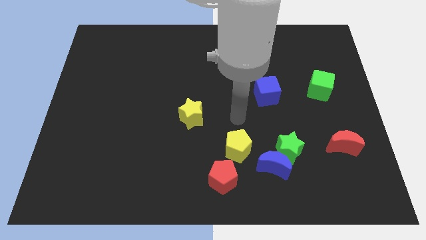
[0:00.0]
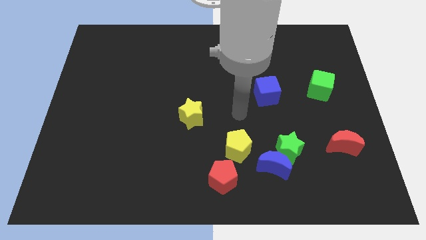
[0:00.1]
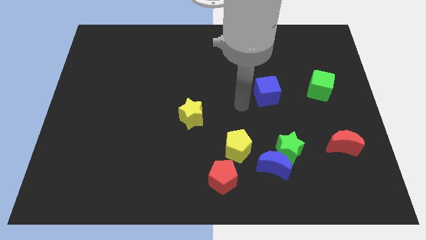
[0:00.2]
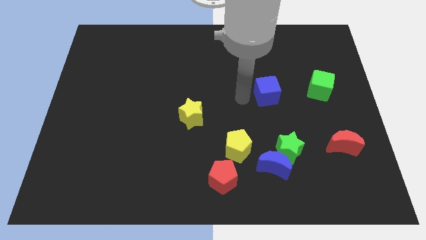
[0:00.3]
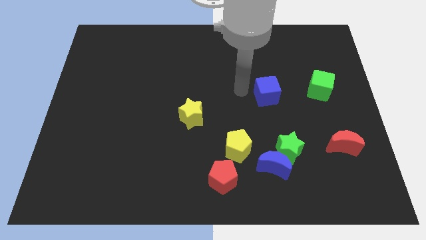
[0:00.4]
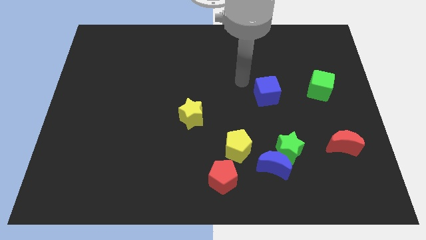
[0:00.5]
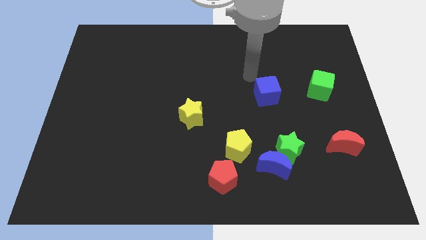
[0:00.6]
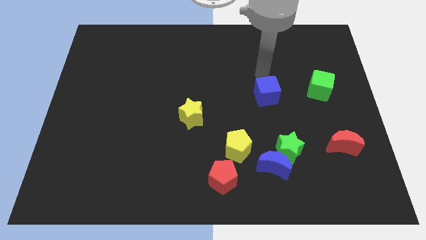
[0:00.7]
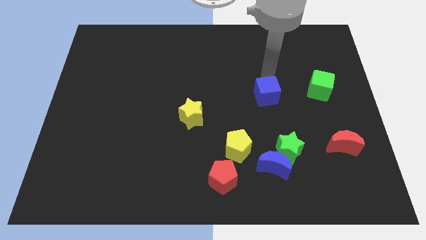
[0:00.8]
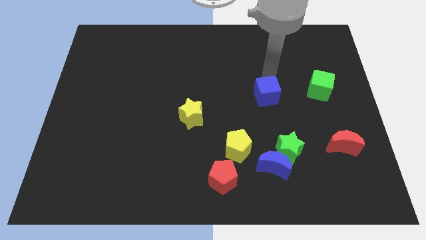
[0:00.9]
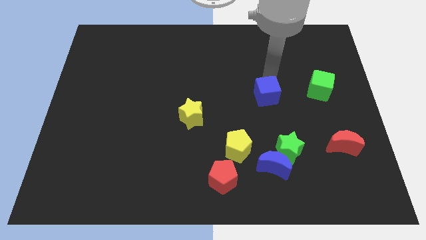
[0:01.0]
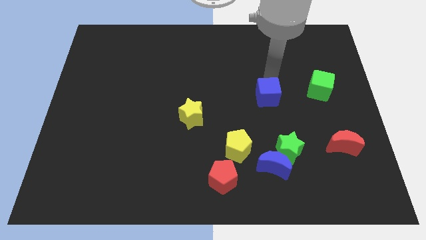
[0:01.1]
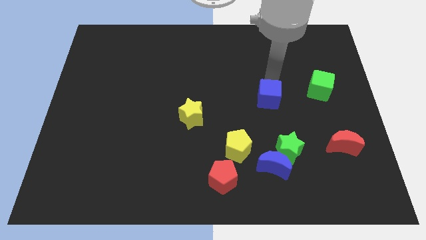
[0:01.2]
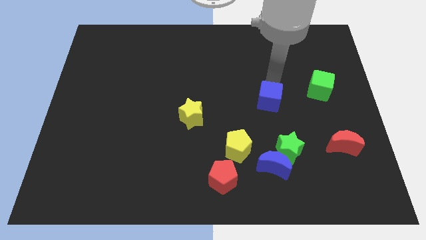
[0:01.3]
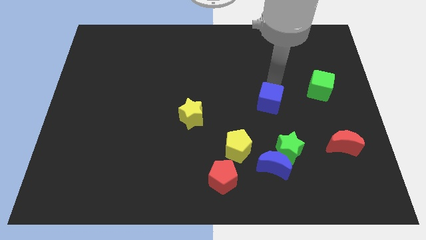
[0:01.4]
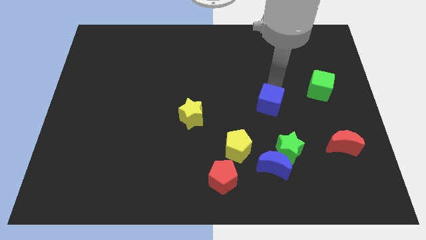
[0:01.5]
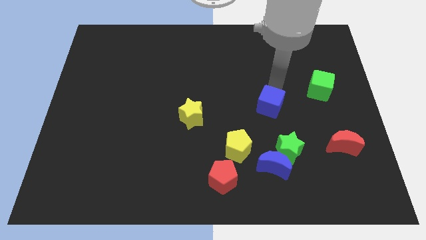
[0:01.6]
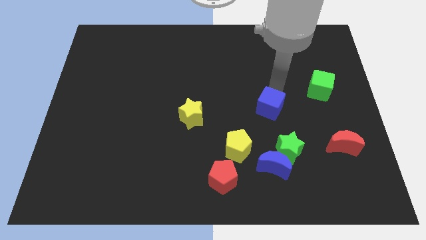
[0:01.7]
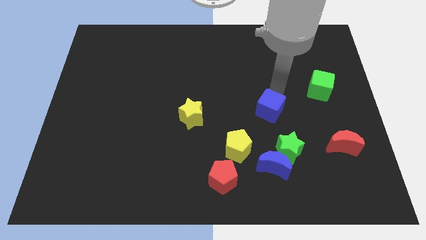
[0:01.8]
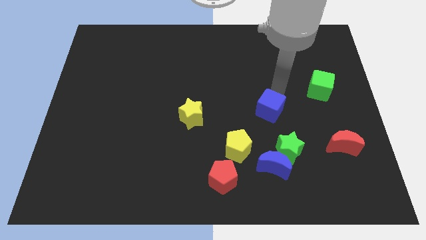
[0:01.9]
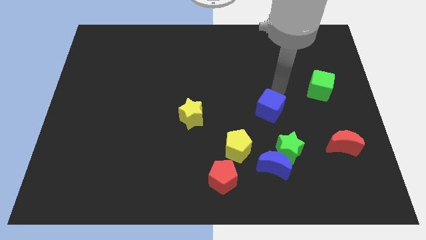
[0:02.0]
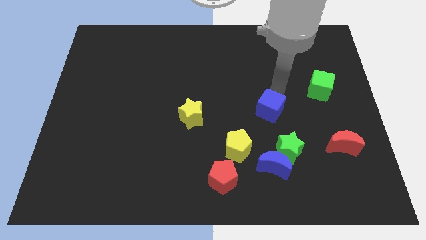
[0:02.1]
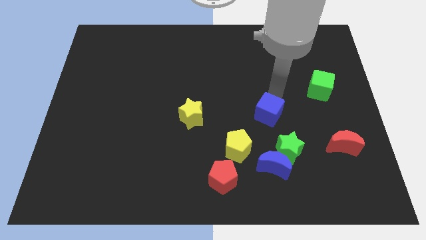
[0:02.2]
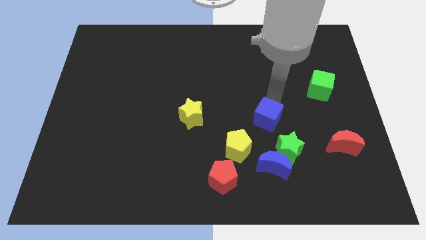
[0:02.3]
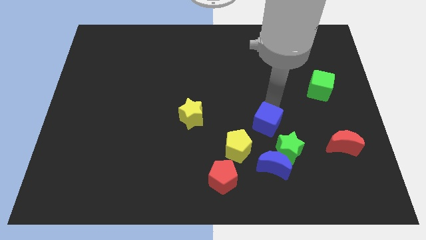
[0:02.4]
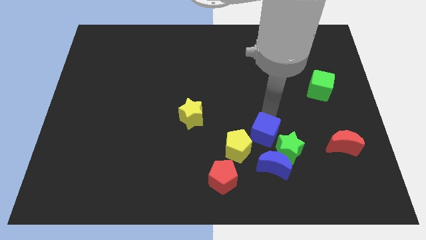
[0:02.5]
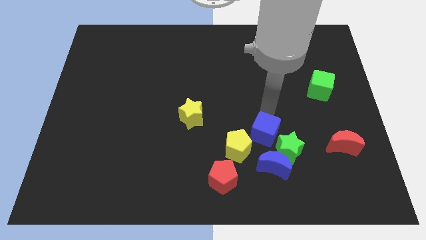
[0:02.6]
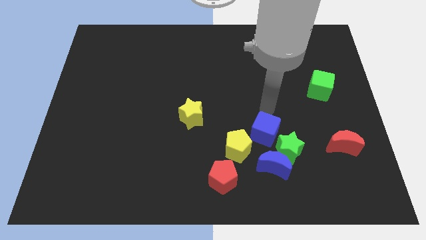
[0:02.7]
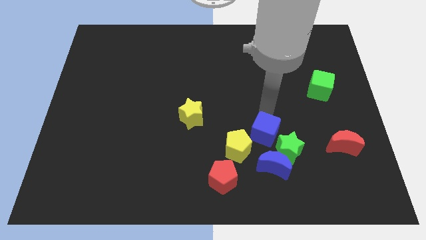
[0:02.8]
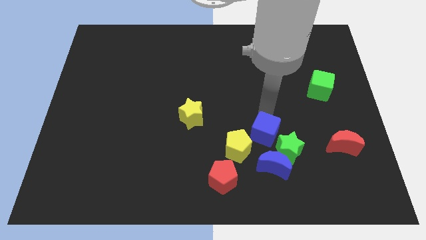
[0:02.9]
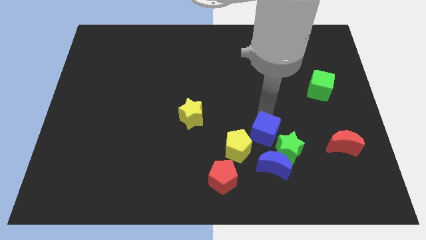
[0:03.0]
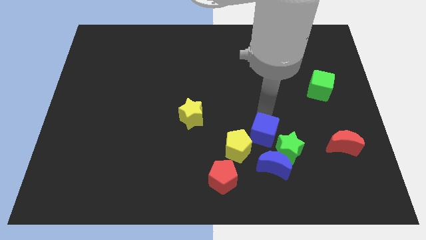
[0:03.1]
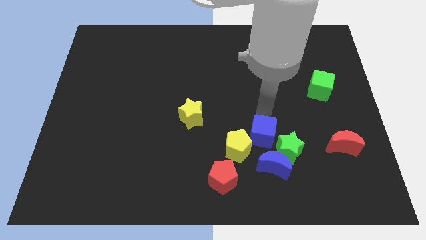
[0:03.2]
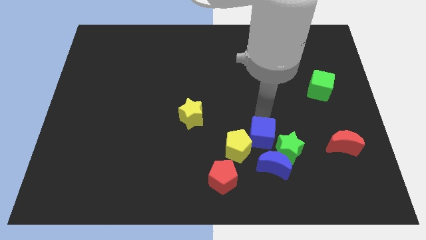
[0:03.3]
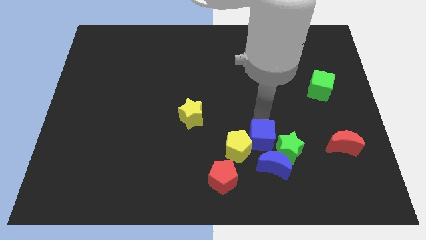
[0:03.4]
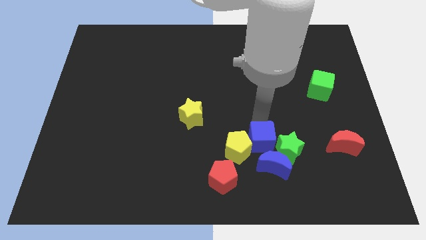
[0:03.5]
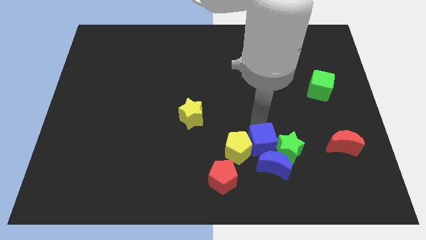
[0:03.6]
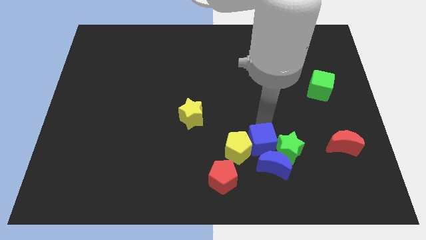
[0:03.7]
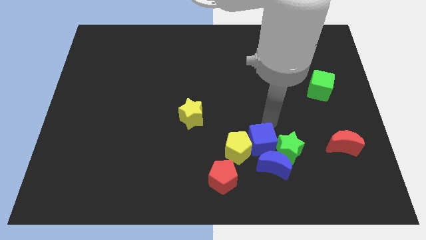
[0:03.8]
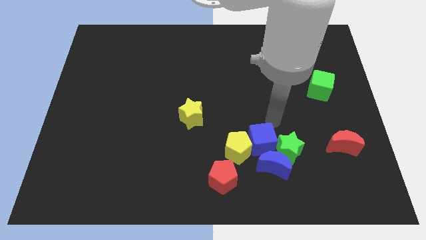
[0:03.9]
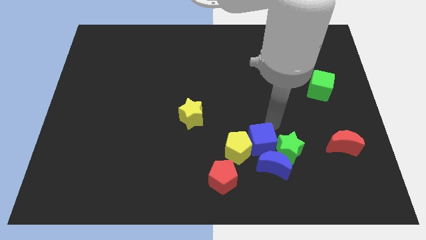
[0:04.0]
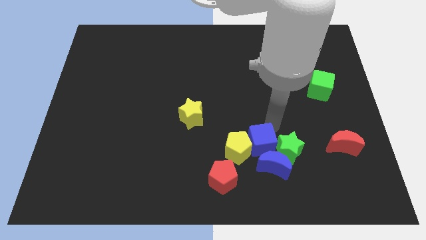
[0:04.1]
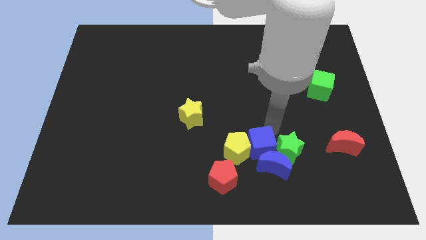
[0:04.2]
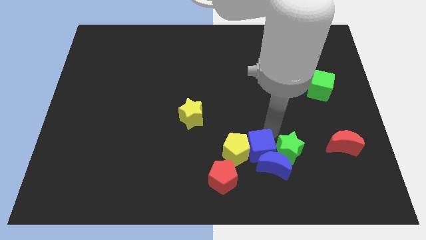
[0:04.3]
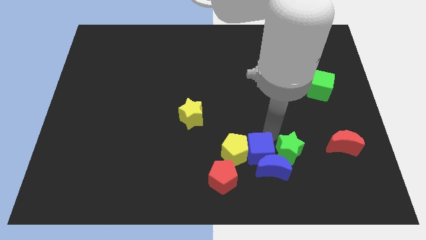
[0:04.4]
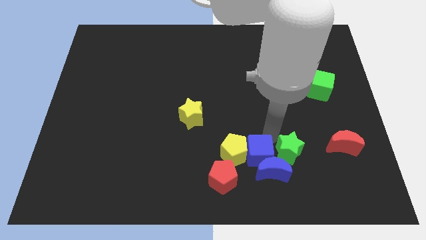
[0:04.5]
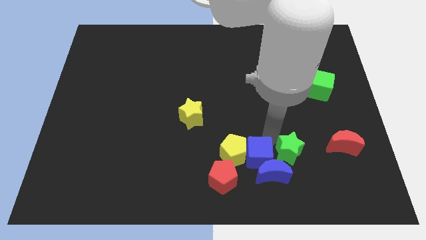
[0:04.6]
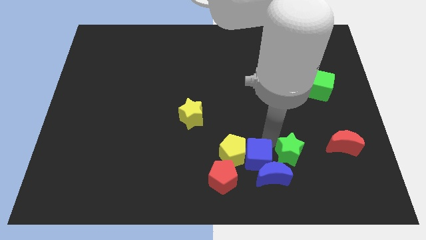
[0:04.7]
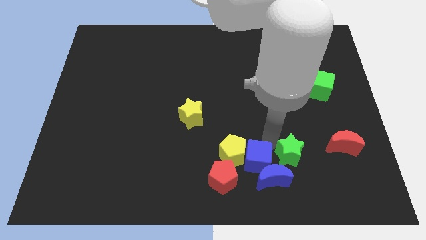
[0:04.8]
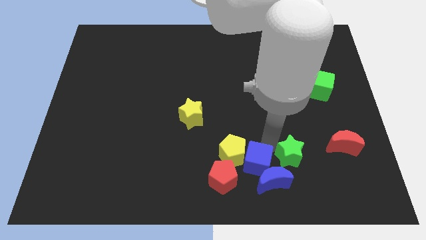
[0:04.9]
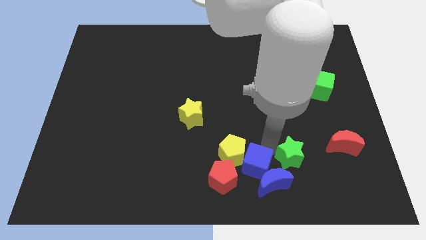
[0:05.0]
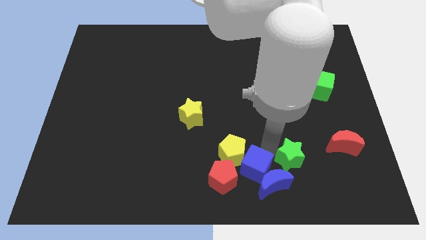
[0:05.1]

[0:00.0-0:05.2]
put the blue cube to the bottom

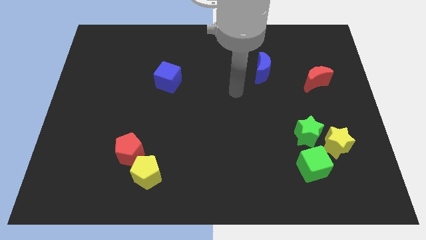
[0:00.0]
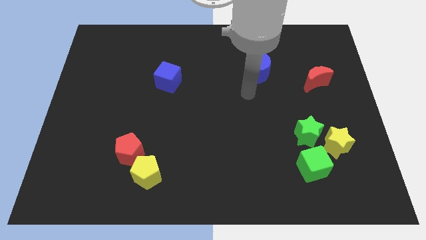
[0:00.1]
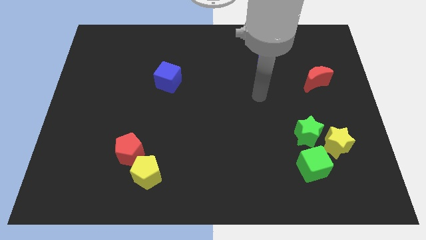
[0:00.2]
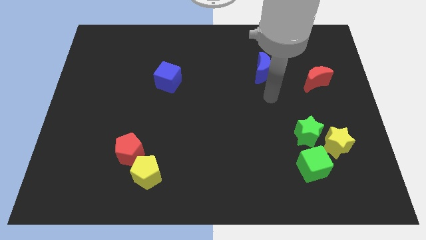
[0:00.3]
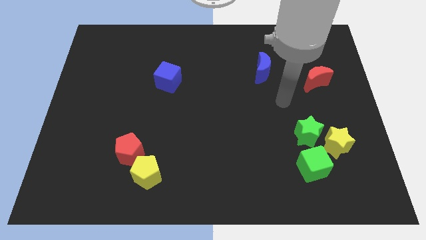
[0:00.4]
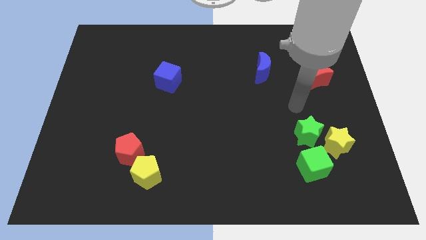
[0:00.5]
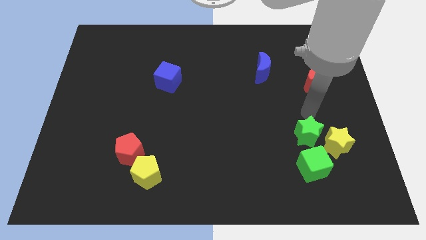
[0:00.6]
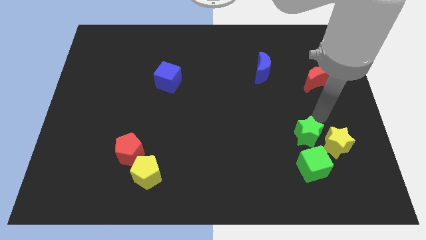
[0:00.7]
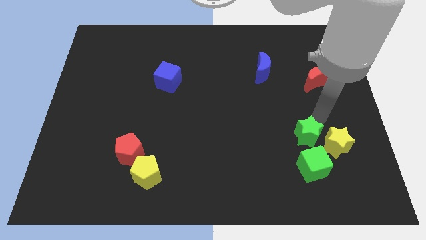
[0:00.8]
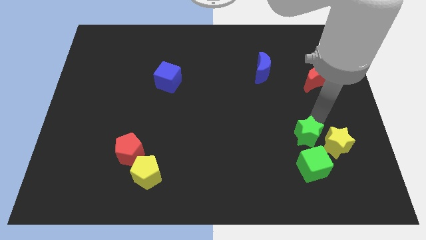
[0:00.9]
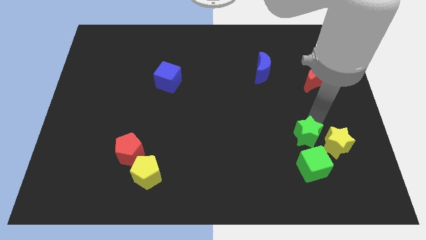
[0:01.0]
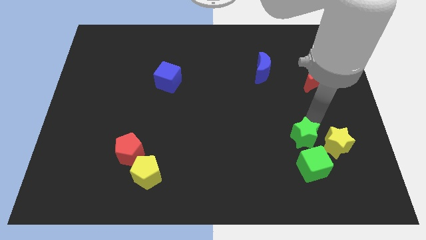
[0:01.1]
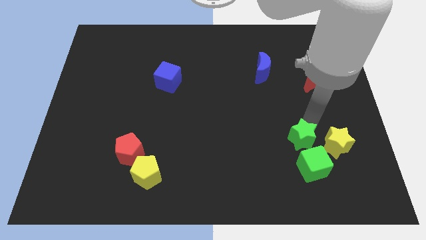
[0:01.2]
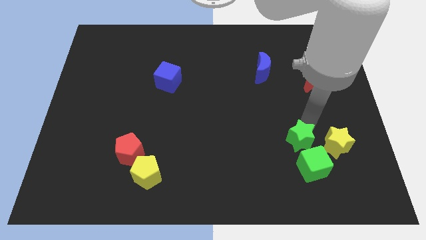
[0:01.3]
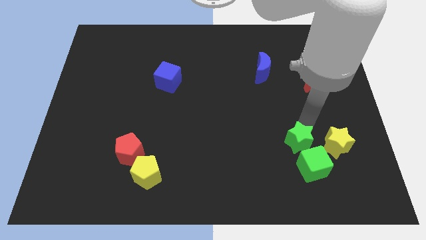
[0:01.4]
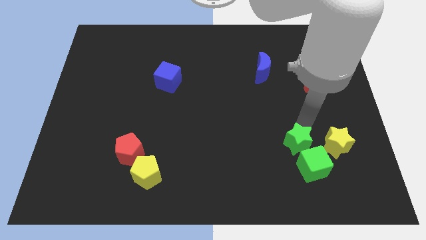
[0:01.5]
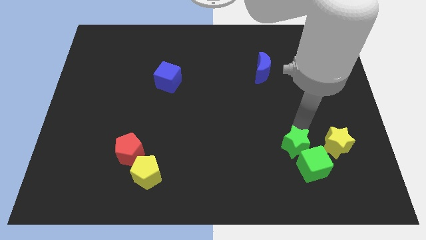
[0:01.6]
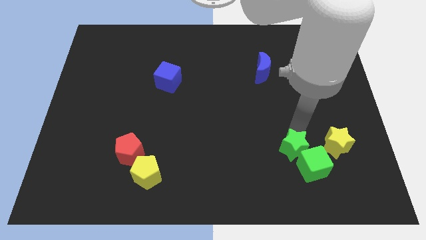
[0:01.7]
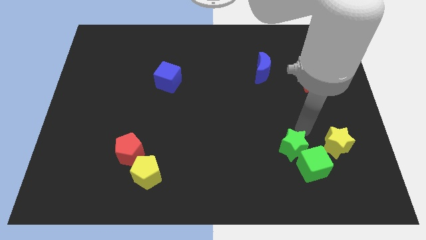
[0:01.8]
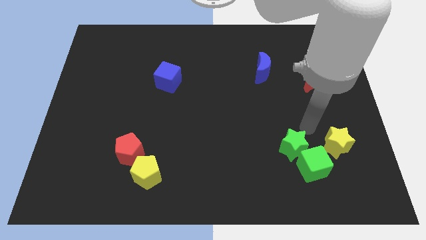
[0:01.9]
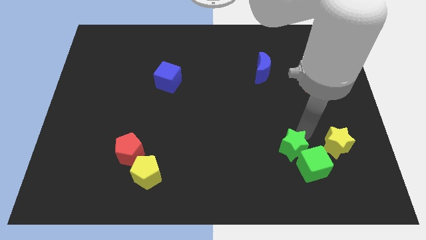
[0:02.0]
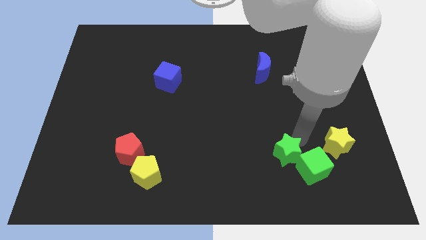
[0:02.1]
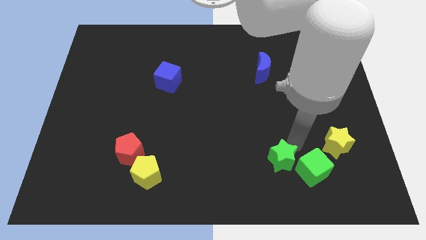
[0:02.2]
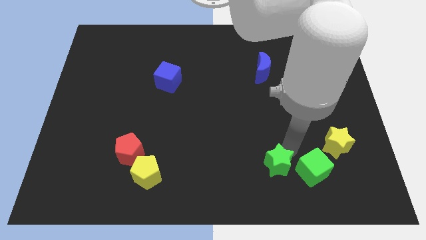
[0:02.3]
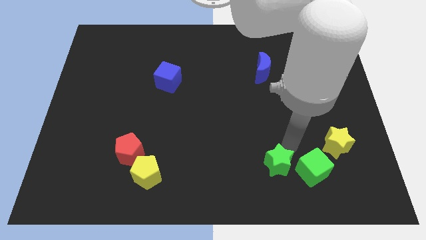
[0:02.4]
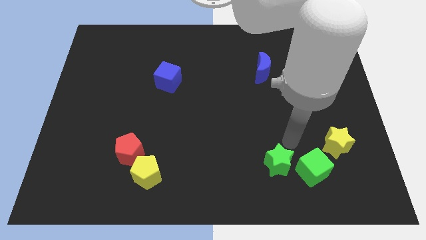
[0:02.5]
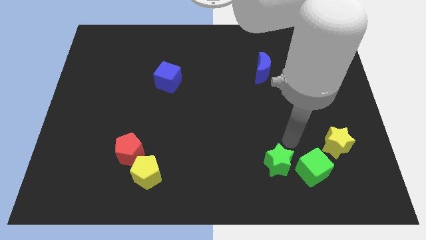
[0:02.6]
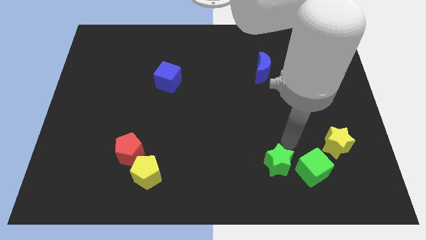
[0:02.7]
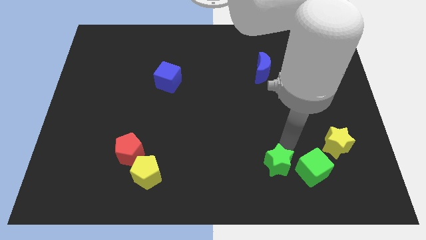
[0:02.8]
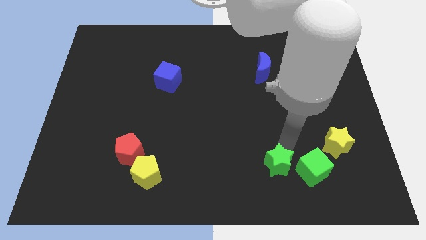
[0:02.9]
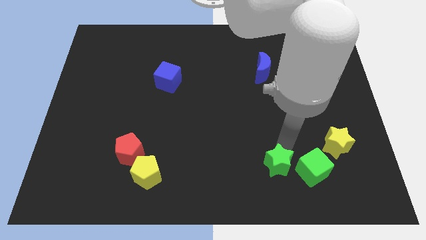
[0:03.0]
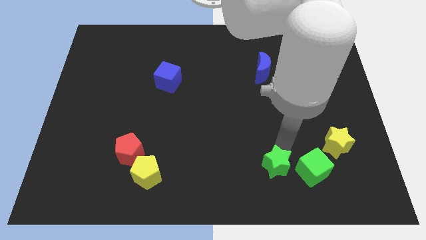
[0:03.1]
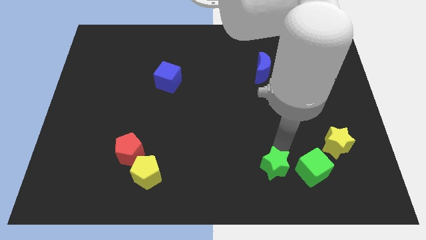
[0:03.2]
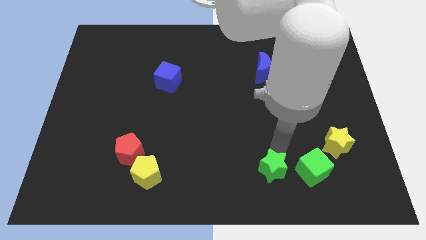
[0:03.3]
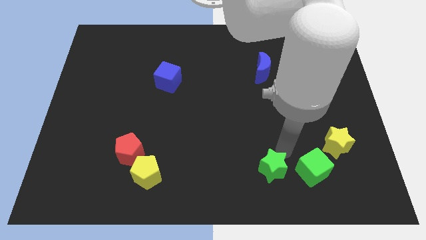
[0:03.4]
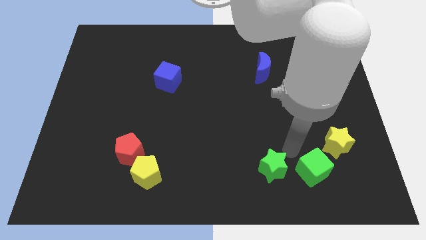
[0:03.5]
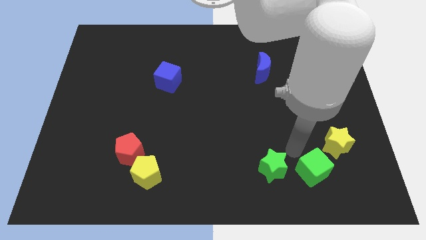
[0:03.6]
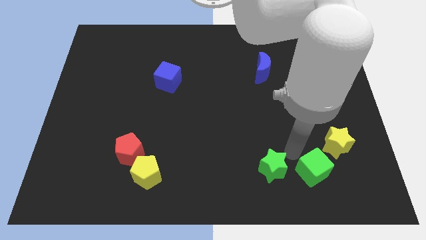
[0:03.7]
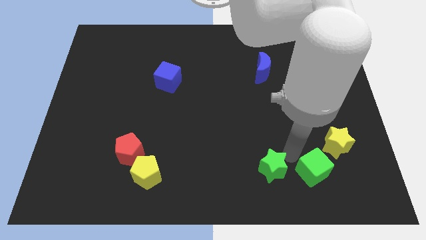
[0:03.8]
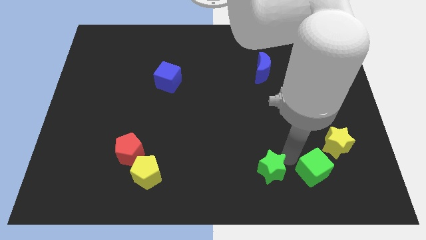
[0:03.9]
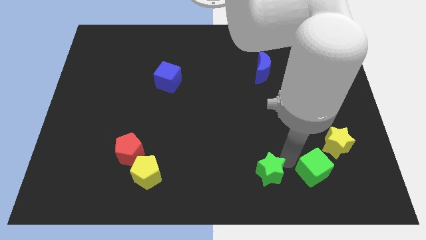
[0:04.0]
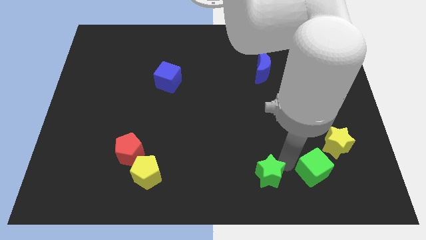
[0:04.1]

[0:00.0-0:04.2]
slide the green star to the bottom
